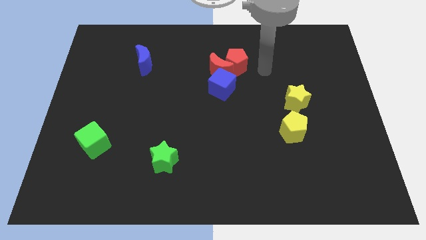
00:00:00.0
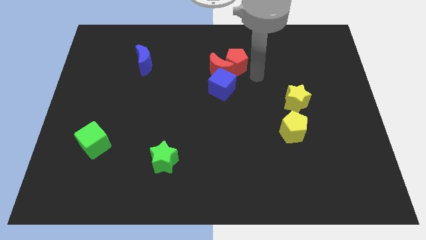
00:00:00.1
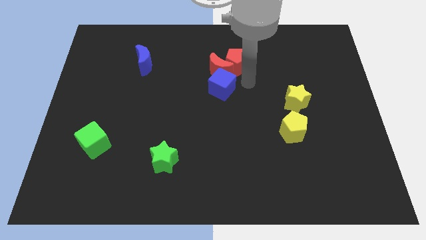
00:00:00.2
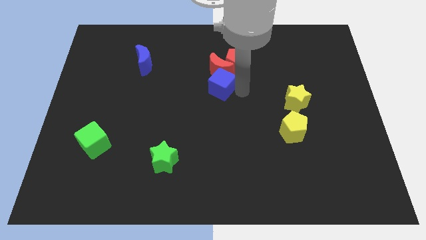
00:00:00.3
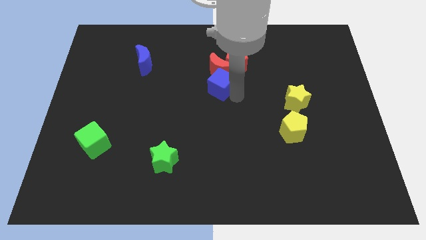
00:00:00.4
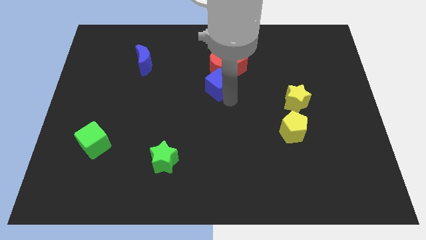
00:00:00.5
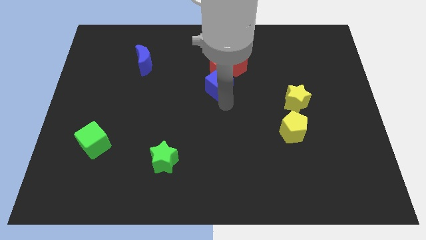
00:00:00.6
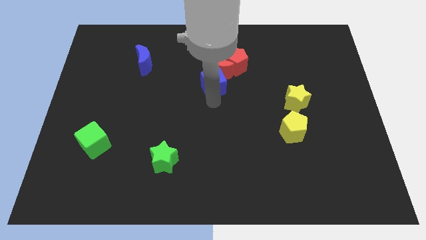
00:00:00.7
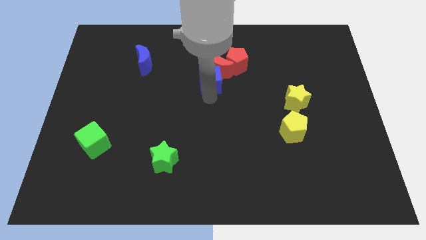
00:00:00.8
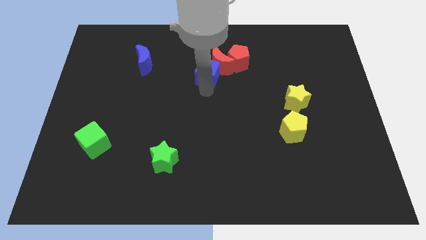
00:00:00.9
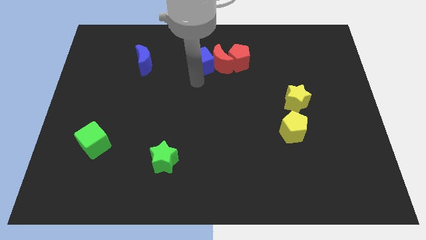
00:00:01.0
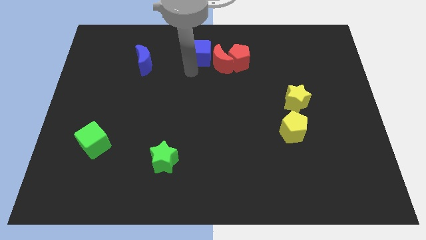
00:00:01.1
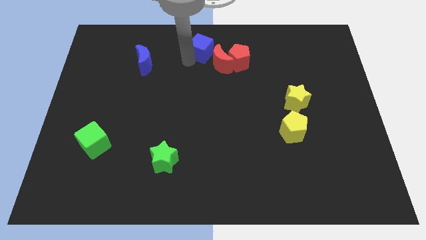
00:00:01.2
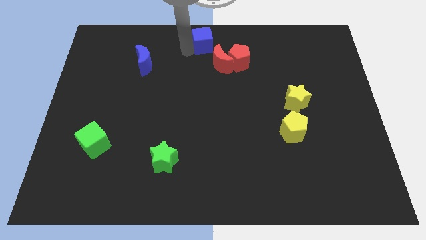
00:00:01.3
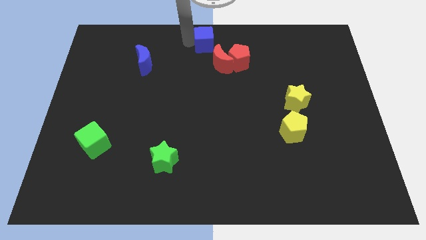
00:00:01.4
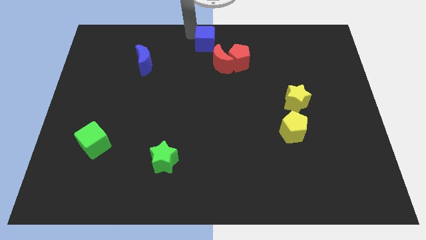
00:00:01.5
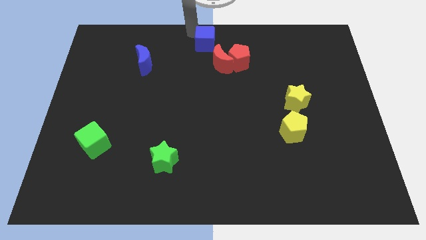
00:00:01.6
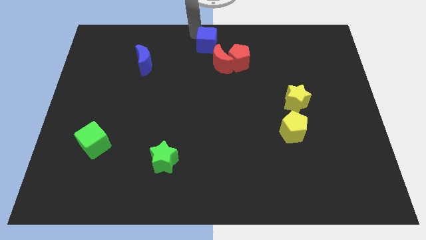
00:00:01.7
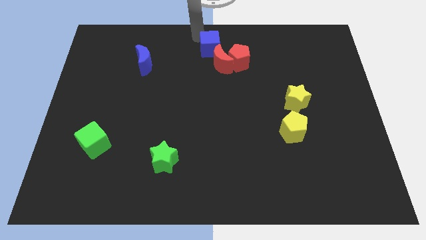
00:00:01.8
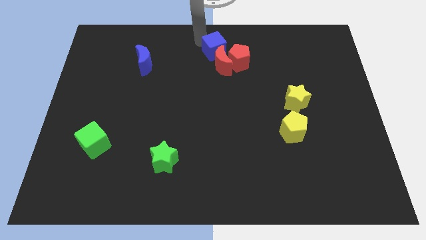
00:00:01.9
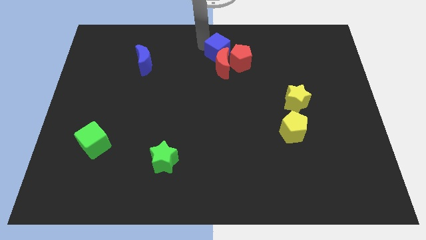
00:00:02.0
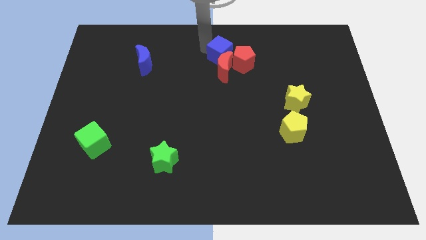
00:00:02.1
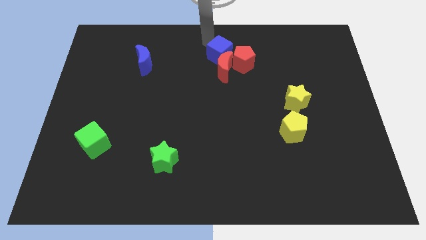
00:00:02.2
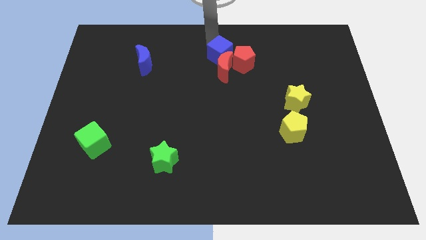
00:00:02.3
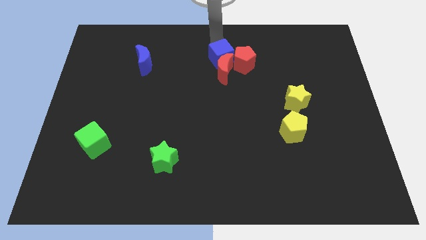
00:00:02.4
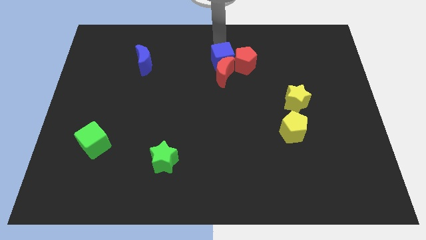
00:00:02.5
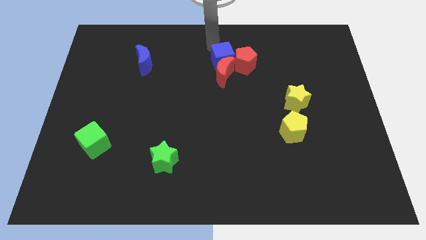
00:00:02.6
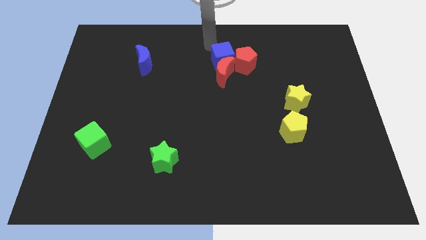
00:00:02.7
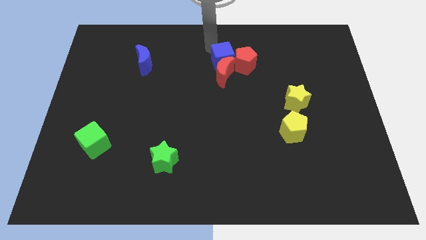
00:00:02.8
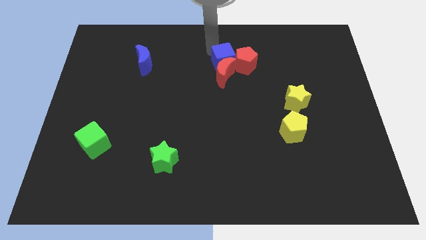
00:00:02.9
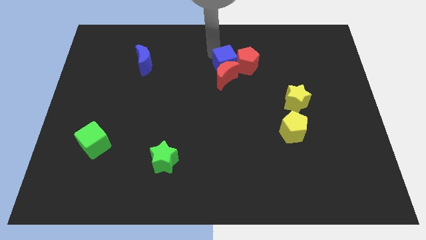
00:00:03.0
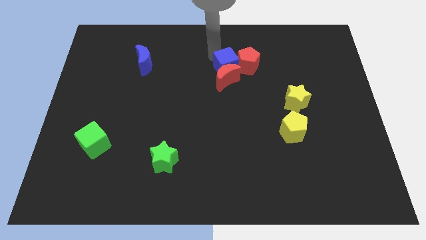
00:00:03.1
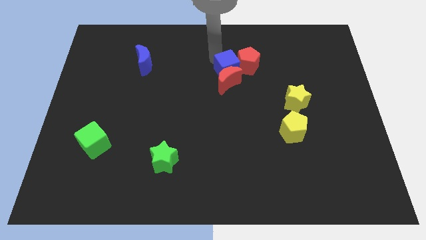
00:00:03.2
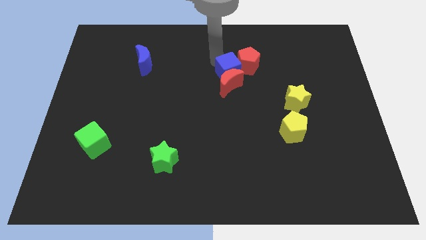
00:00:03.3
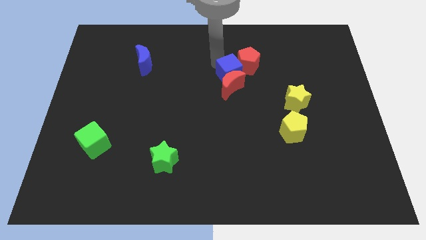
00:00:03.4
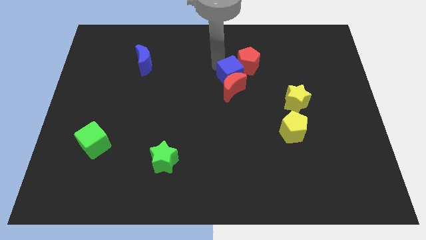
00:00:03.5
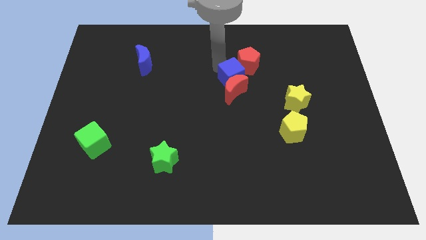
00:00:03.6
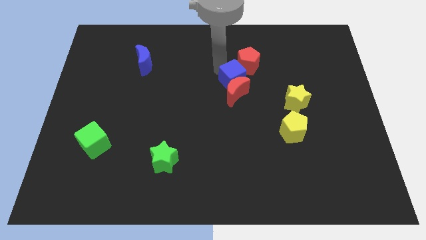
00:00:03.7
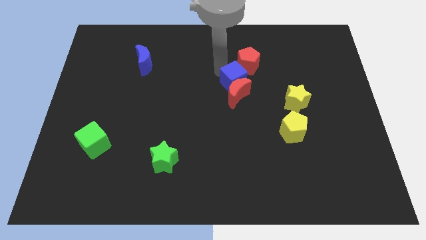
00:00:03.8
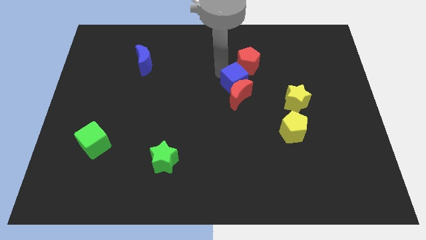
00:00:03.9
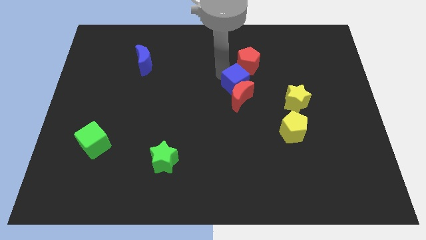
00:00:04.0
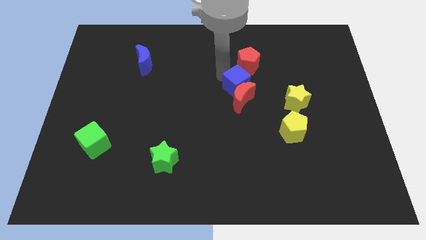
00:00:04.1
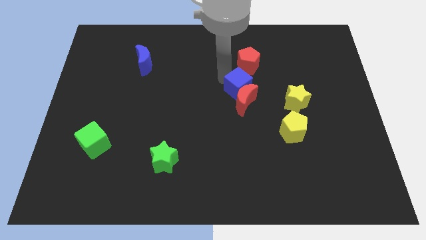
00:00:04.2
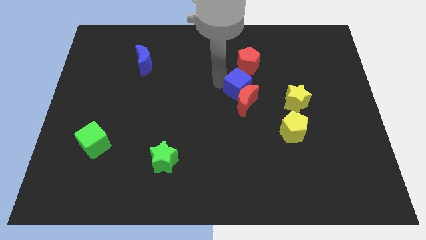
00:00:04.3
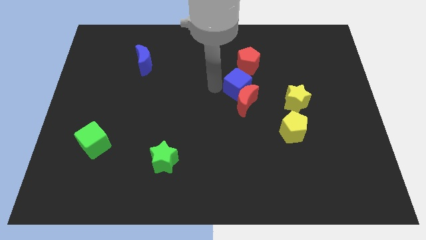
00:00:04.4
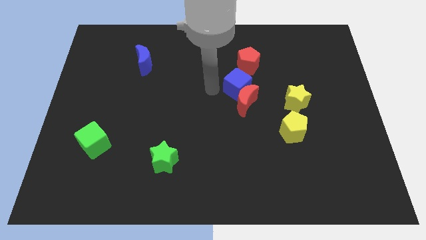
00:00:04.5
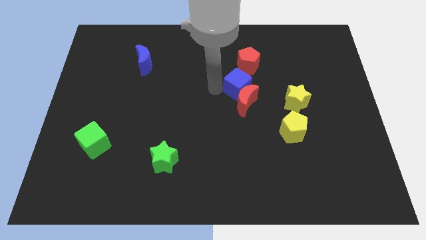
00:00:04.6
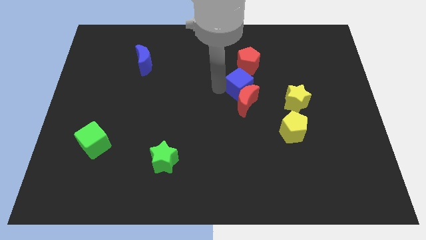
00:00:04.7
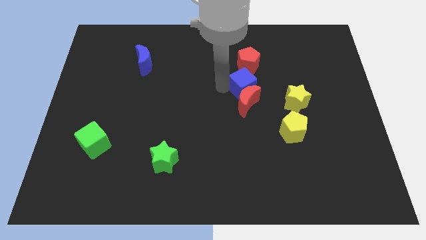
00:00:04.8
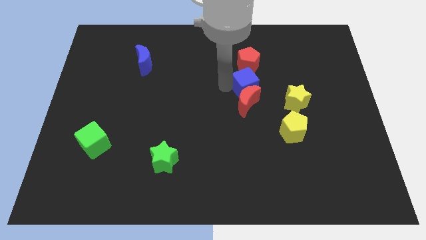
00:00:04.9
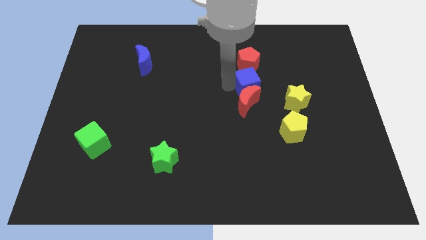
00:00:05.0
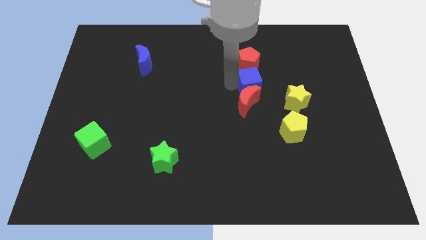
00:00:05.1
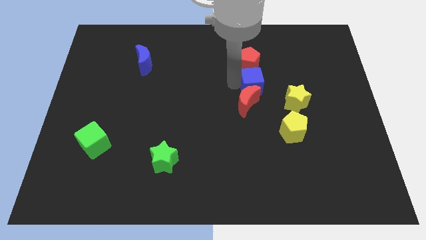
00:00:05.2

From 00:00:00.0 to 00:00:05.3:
slide the blue cube to the top left side of the yellow star

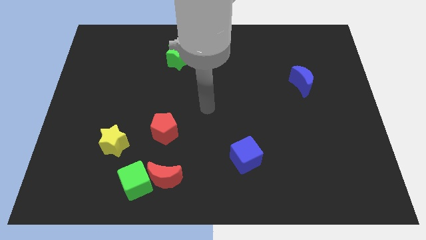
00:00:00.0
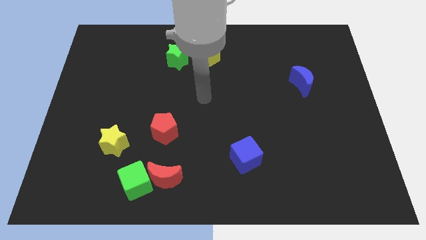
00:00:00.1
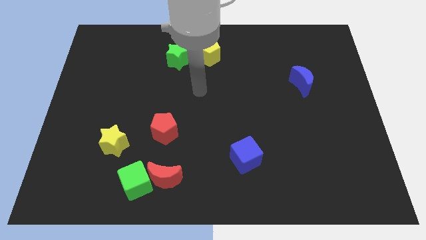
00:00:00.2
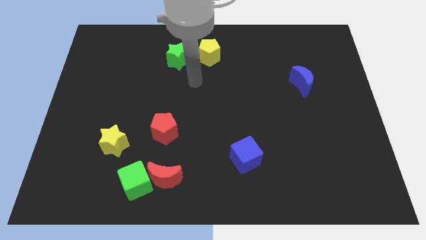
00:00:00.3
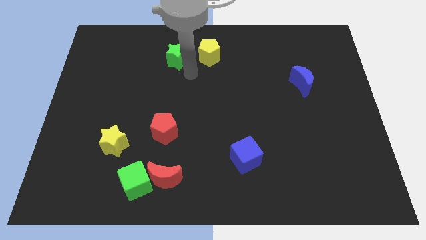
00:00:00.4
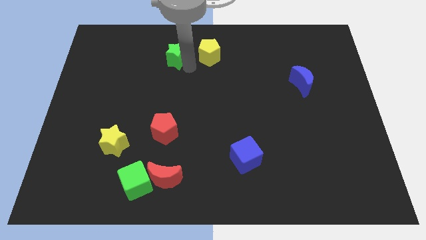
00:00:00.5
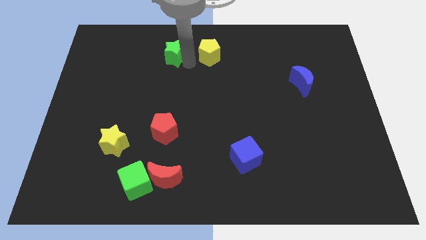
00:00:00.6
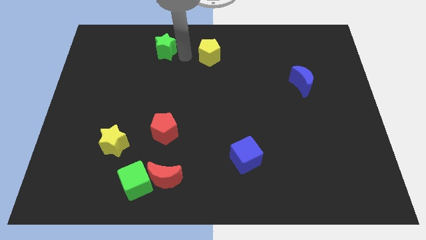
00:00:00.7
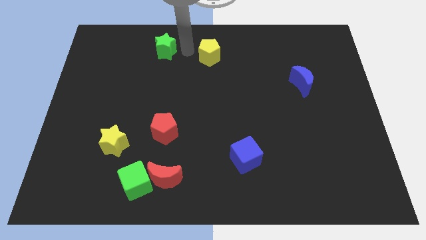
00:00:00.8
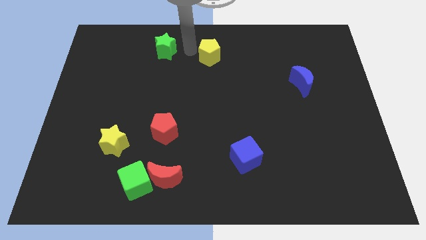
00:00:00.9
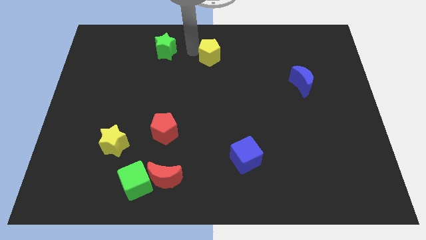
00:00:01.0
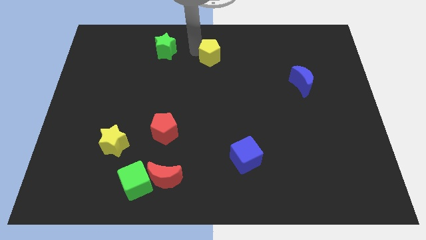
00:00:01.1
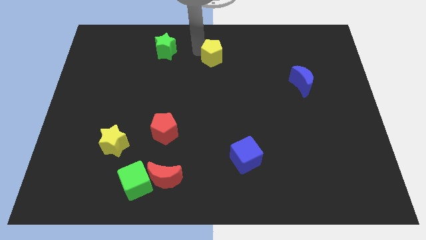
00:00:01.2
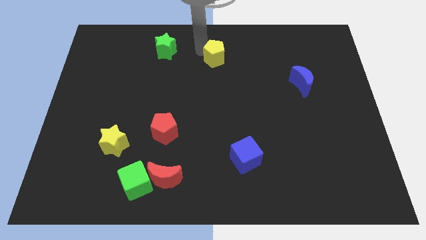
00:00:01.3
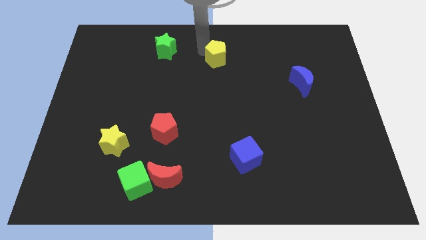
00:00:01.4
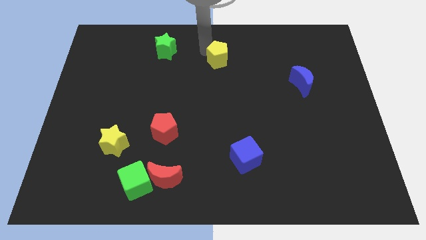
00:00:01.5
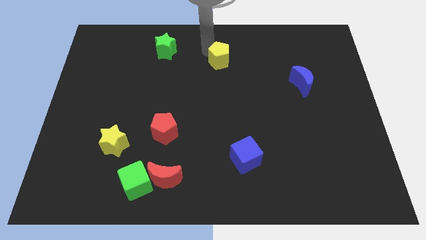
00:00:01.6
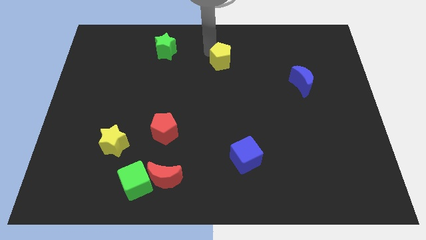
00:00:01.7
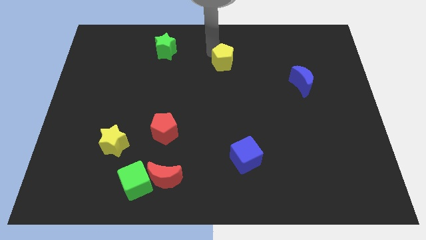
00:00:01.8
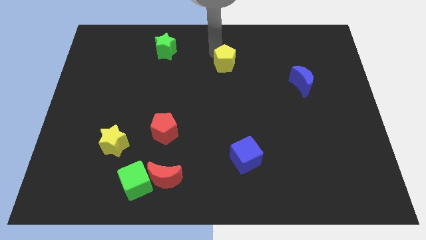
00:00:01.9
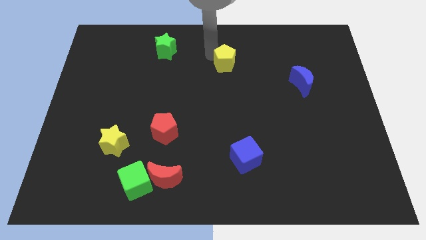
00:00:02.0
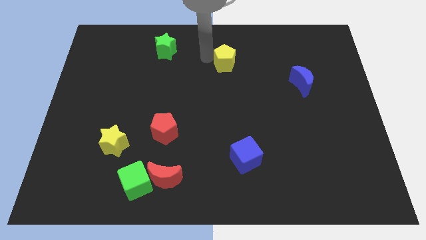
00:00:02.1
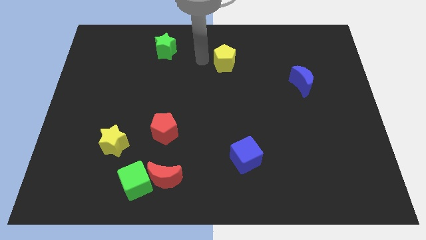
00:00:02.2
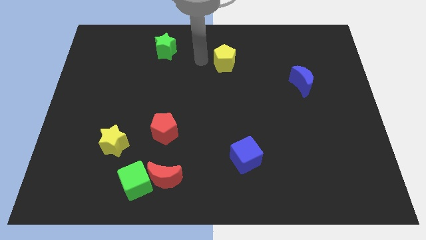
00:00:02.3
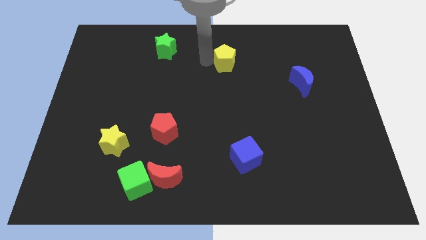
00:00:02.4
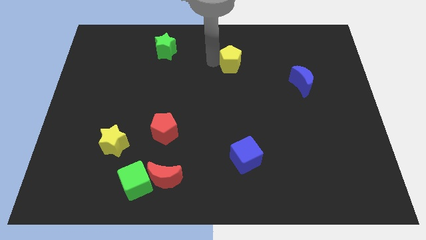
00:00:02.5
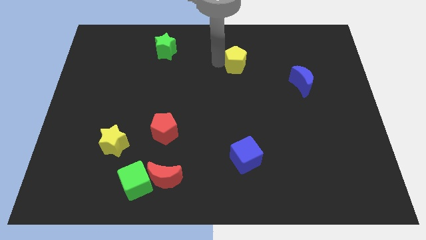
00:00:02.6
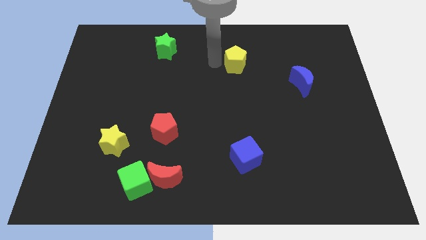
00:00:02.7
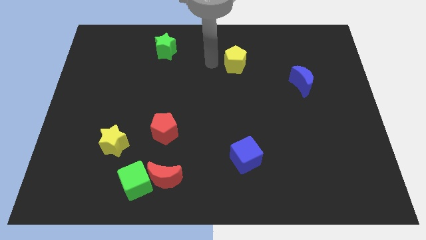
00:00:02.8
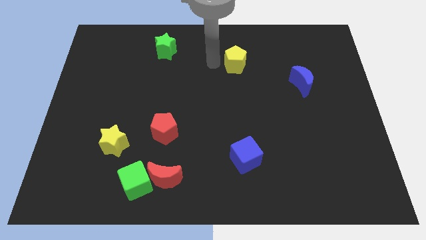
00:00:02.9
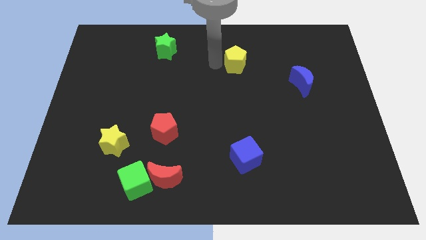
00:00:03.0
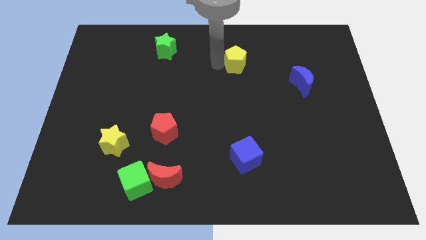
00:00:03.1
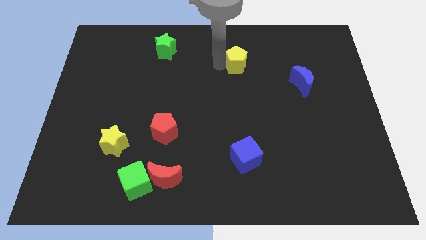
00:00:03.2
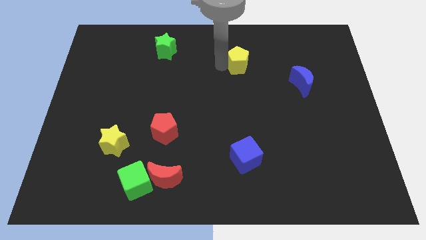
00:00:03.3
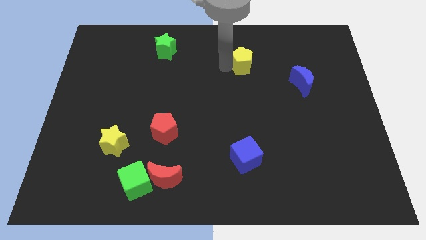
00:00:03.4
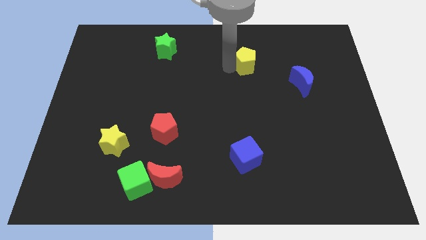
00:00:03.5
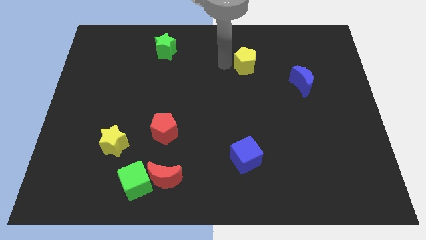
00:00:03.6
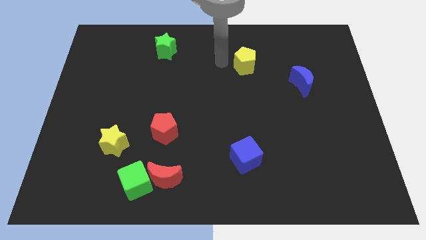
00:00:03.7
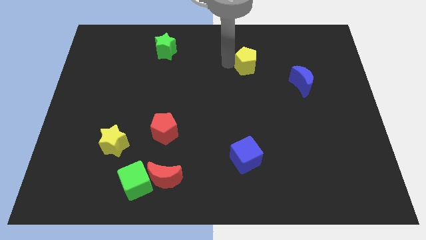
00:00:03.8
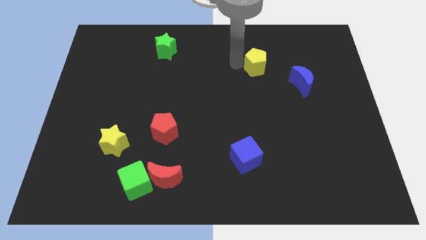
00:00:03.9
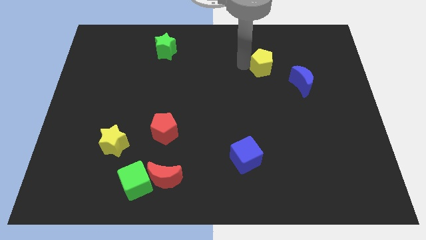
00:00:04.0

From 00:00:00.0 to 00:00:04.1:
move the yellow pentagon diagonally up and to the left of the blue moon
